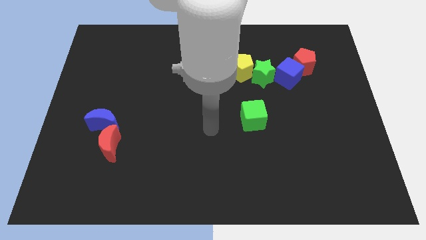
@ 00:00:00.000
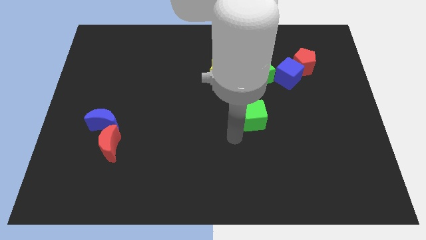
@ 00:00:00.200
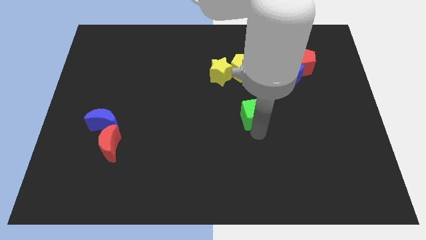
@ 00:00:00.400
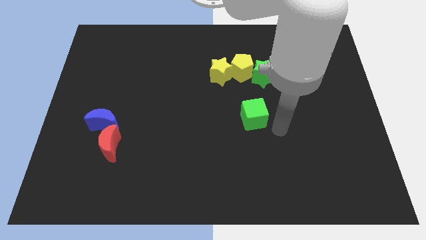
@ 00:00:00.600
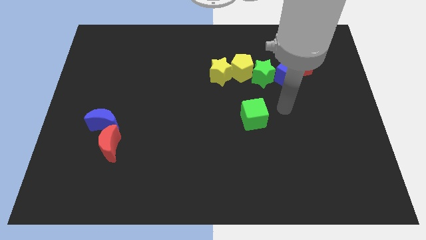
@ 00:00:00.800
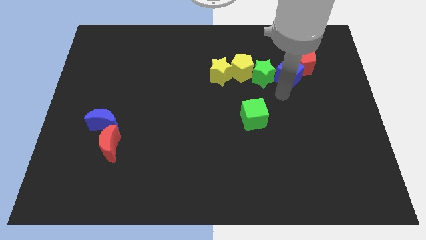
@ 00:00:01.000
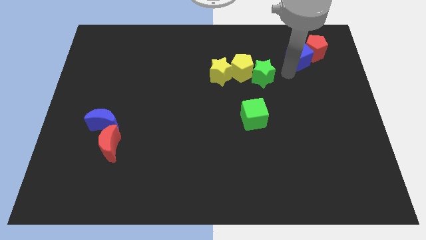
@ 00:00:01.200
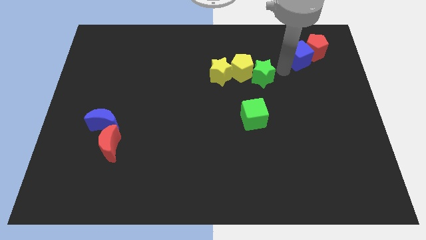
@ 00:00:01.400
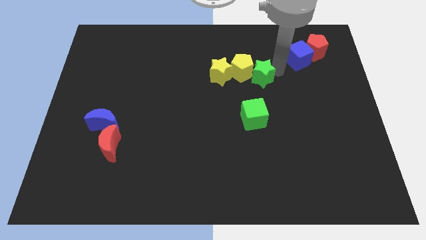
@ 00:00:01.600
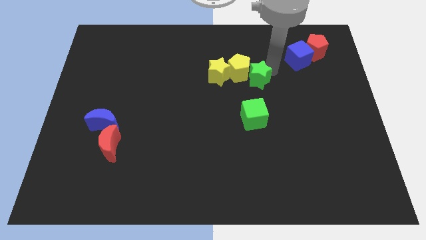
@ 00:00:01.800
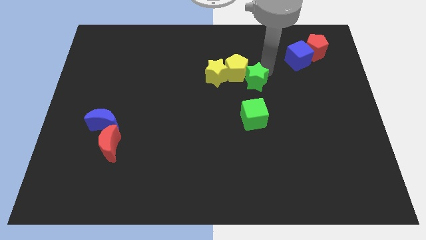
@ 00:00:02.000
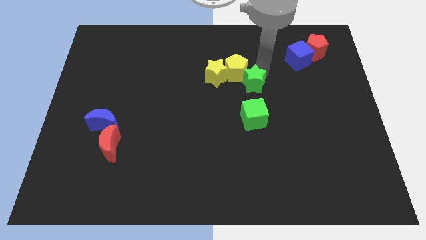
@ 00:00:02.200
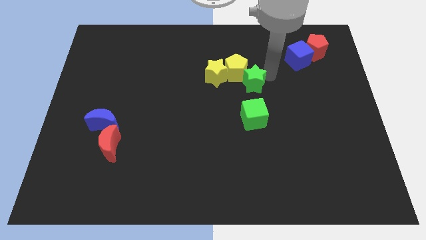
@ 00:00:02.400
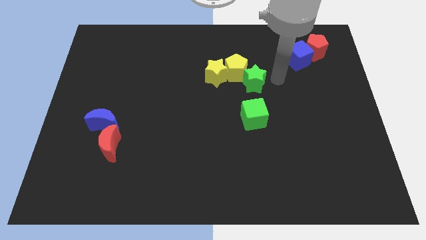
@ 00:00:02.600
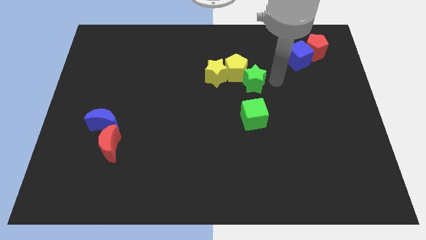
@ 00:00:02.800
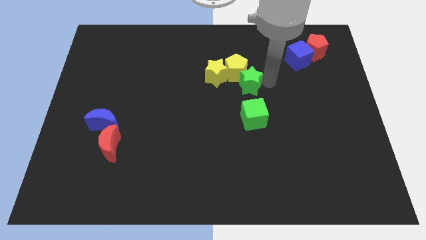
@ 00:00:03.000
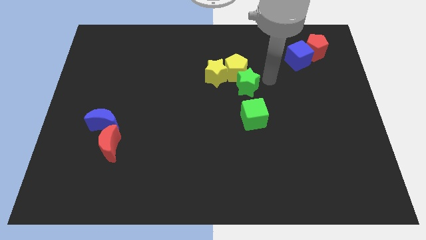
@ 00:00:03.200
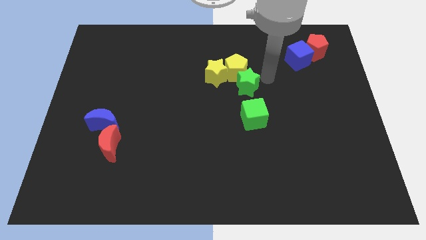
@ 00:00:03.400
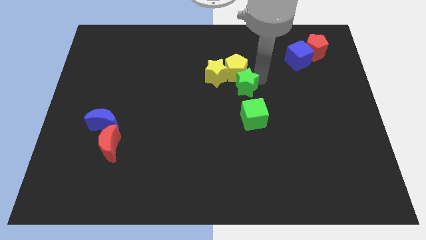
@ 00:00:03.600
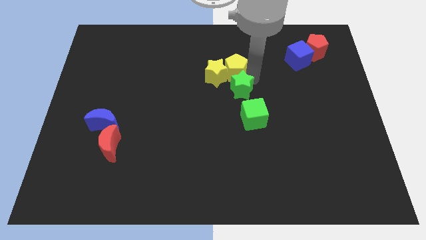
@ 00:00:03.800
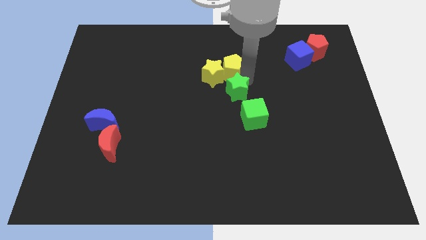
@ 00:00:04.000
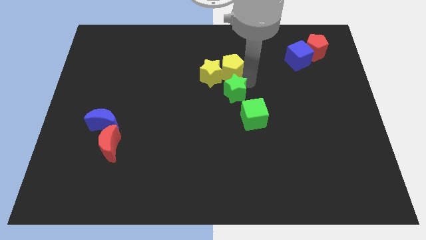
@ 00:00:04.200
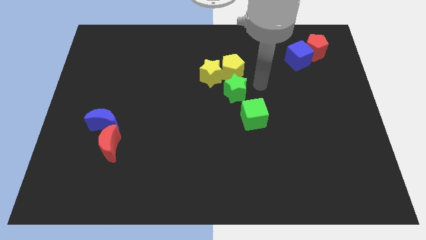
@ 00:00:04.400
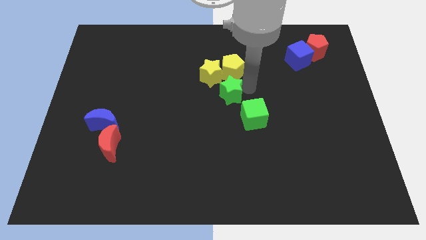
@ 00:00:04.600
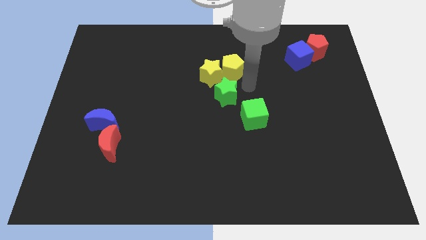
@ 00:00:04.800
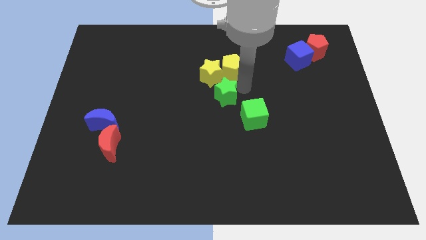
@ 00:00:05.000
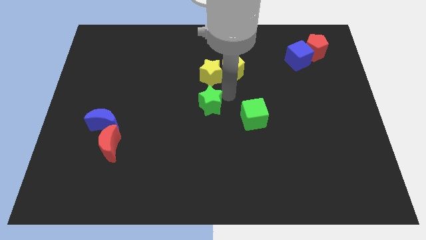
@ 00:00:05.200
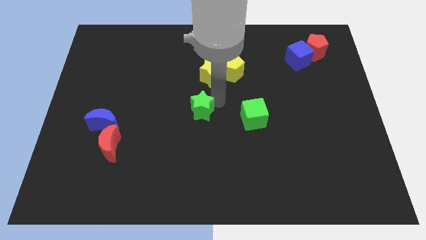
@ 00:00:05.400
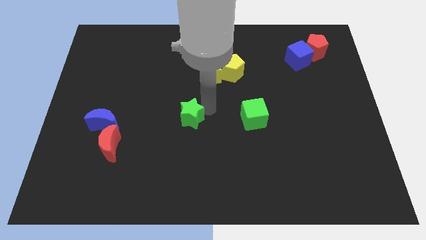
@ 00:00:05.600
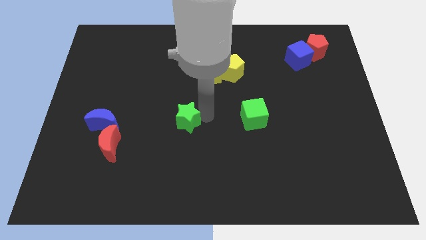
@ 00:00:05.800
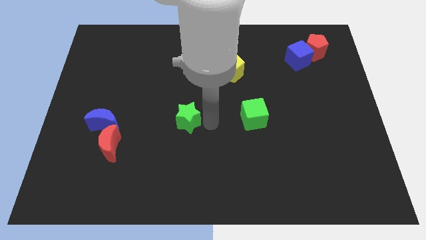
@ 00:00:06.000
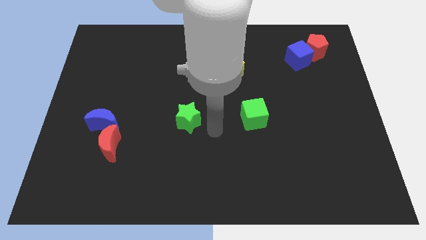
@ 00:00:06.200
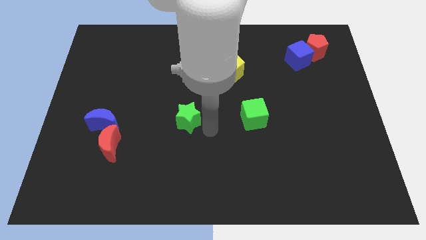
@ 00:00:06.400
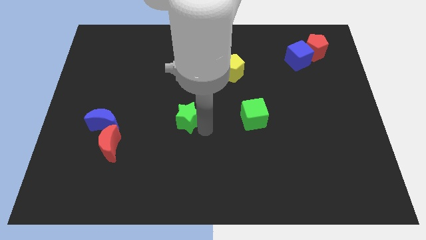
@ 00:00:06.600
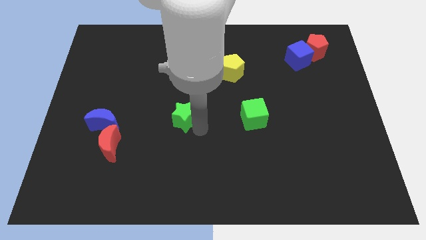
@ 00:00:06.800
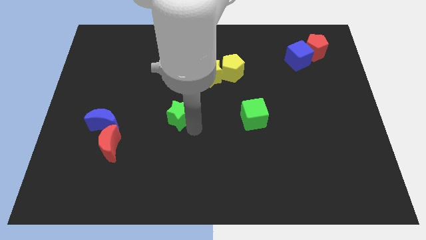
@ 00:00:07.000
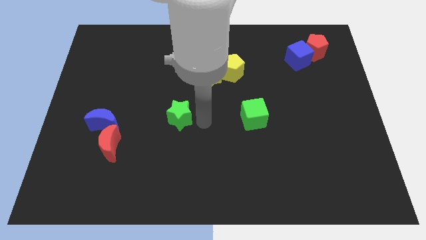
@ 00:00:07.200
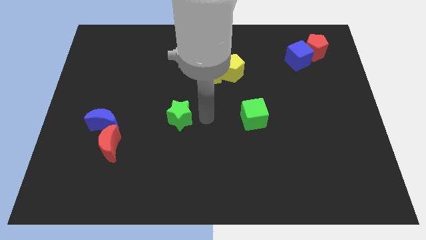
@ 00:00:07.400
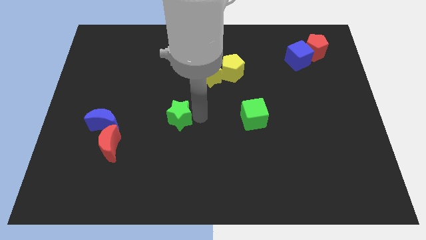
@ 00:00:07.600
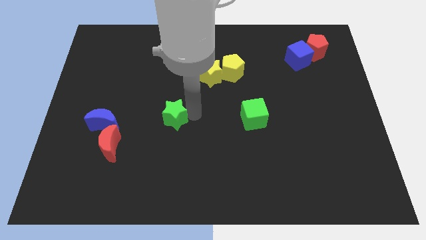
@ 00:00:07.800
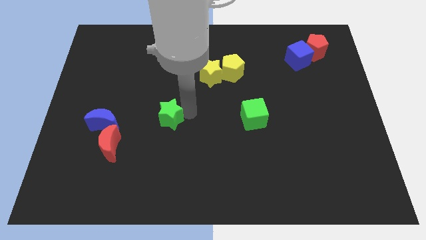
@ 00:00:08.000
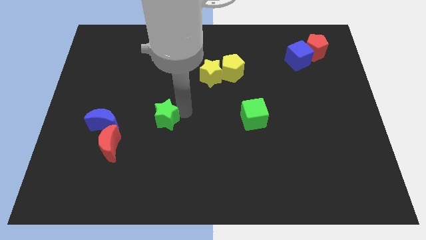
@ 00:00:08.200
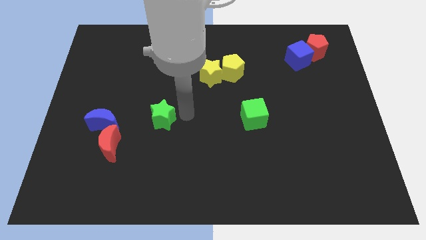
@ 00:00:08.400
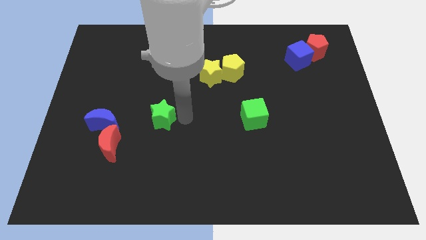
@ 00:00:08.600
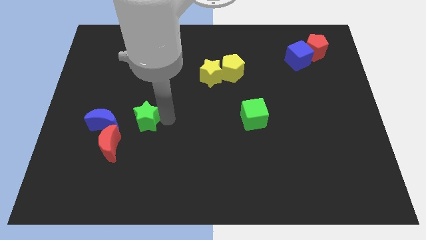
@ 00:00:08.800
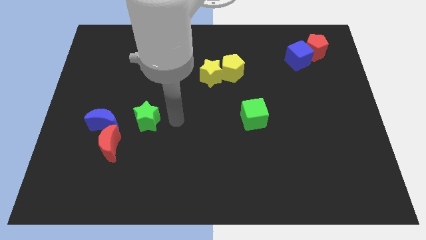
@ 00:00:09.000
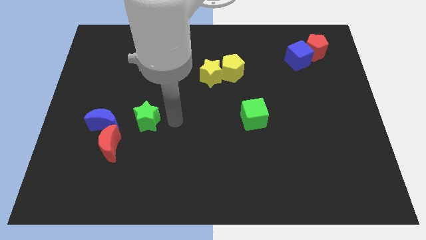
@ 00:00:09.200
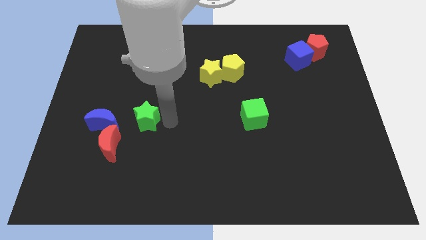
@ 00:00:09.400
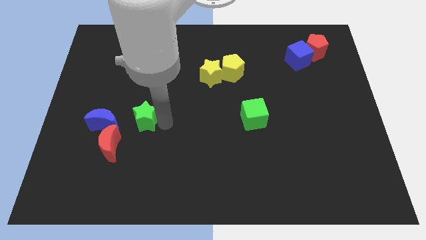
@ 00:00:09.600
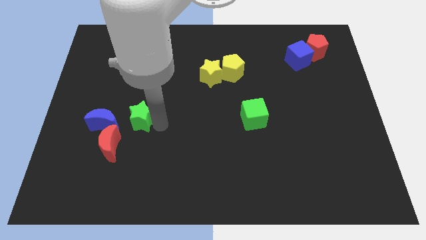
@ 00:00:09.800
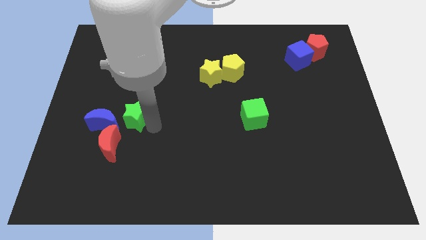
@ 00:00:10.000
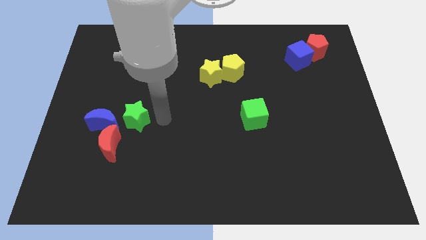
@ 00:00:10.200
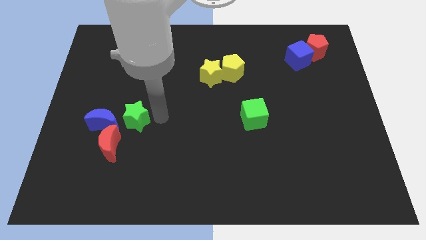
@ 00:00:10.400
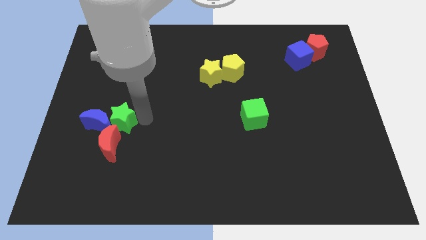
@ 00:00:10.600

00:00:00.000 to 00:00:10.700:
put the green star close to the blue moon

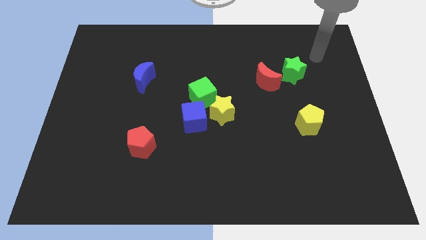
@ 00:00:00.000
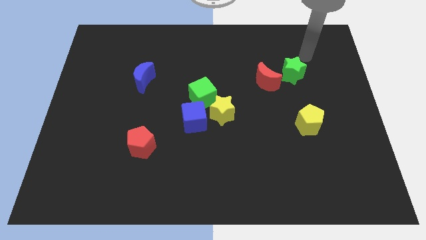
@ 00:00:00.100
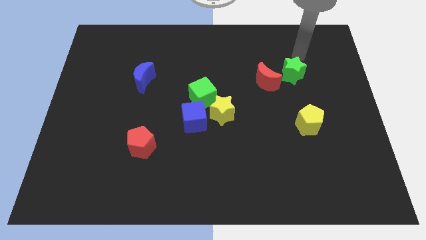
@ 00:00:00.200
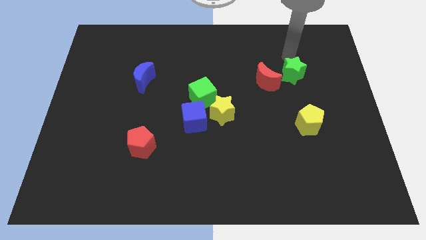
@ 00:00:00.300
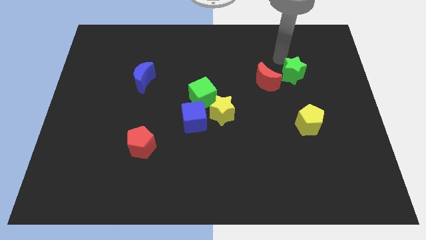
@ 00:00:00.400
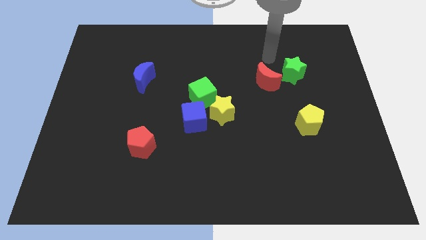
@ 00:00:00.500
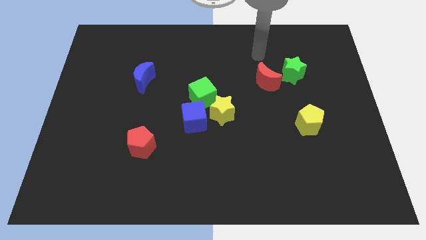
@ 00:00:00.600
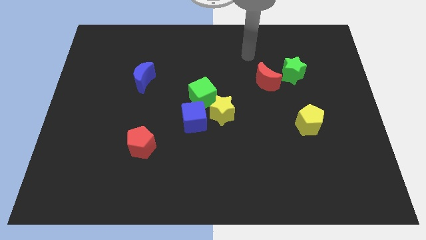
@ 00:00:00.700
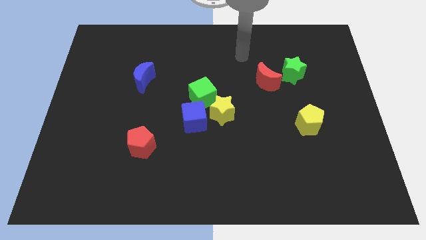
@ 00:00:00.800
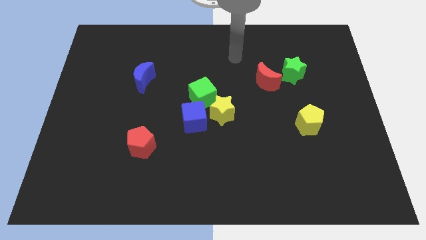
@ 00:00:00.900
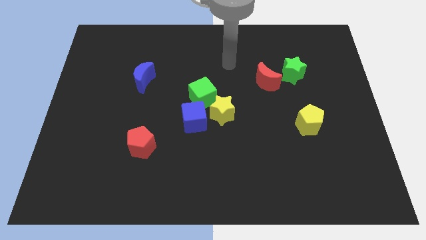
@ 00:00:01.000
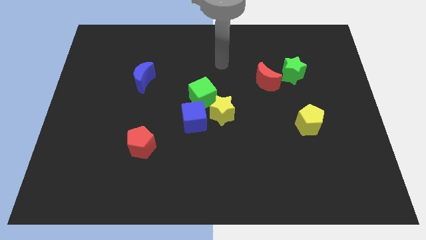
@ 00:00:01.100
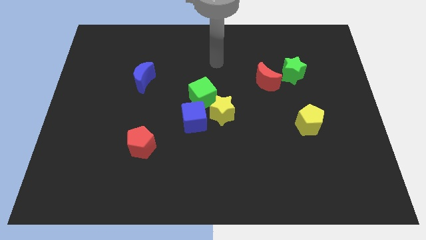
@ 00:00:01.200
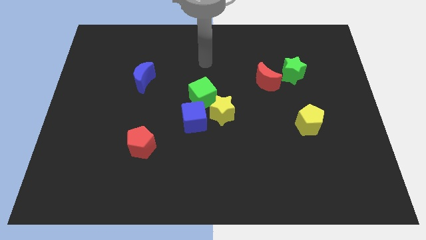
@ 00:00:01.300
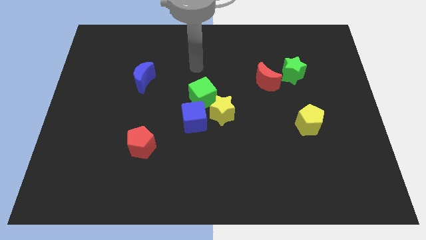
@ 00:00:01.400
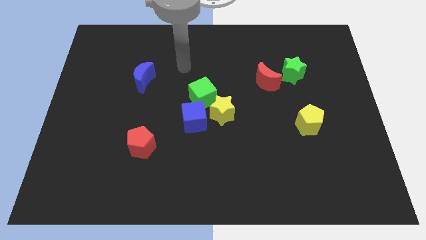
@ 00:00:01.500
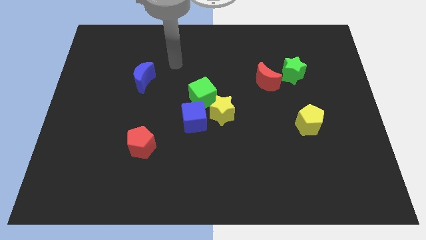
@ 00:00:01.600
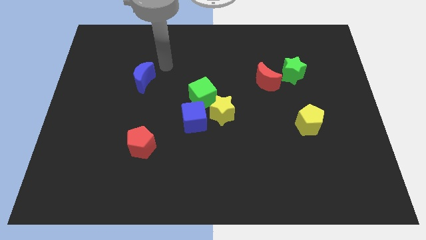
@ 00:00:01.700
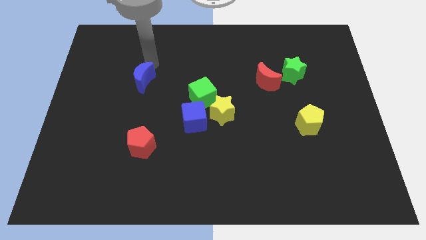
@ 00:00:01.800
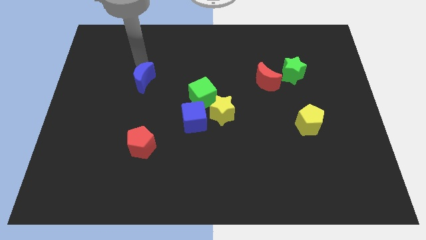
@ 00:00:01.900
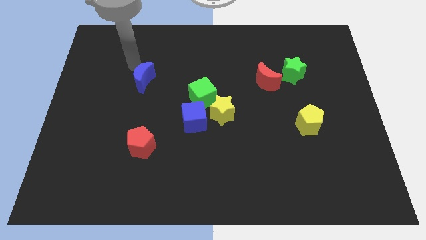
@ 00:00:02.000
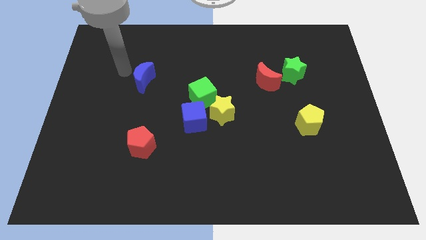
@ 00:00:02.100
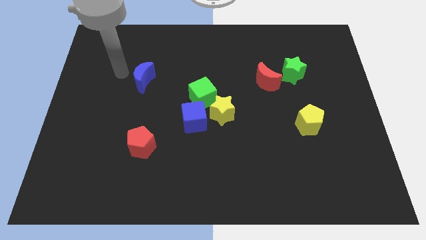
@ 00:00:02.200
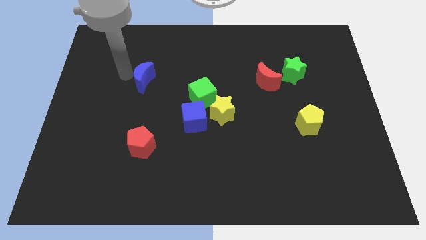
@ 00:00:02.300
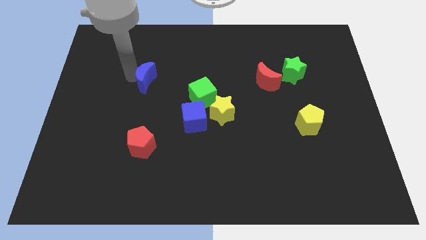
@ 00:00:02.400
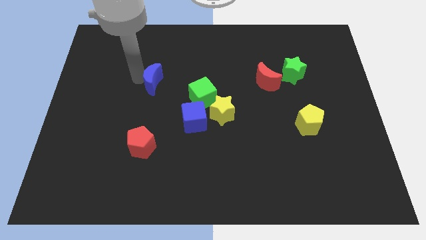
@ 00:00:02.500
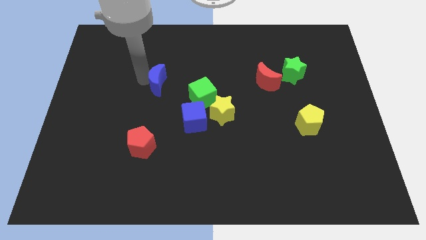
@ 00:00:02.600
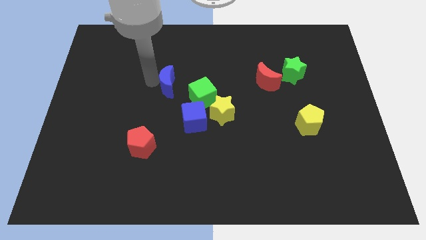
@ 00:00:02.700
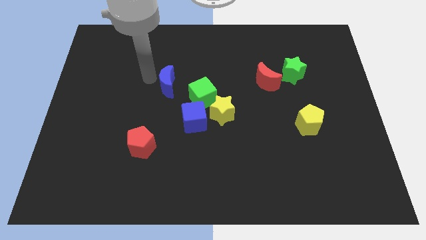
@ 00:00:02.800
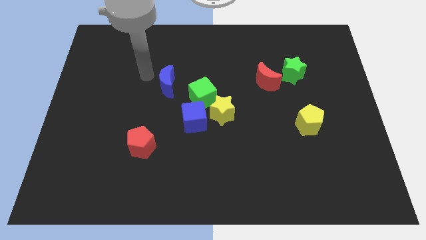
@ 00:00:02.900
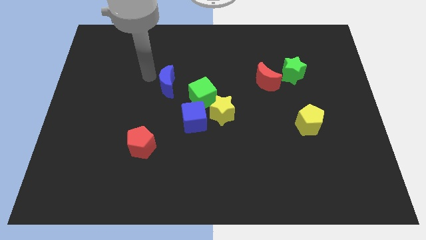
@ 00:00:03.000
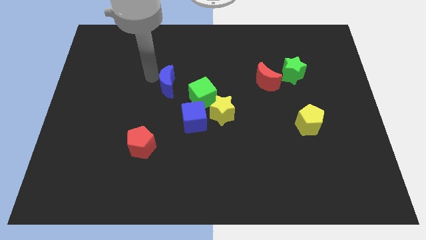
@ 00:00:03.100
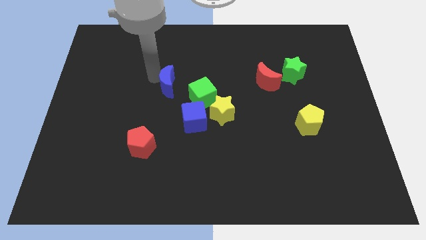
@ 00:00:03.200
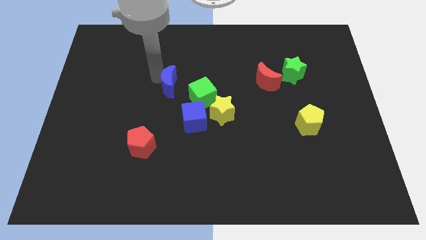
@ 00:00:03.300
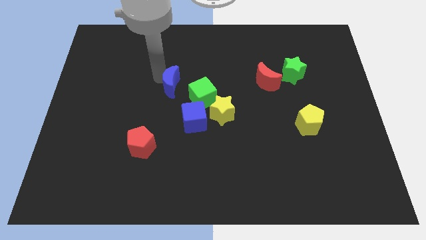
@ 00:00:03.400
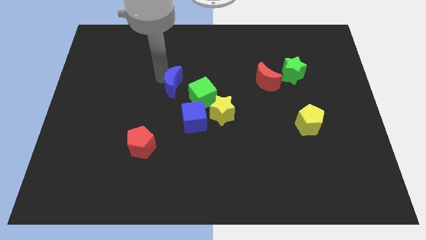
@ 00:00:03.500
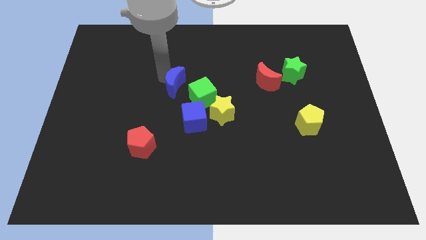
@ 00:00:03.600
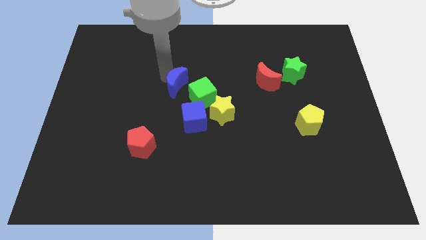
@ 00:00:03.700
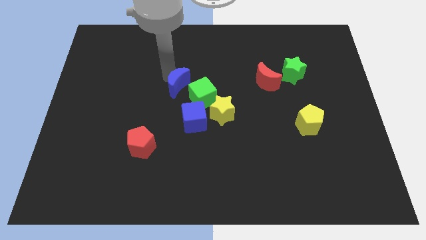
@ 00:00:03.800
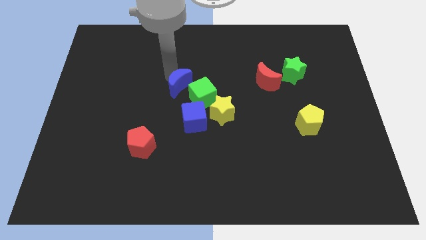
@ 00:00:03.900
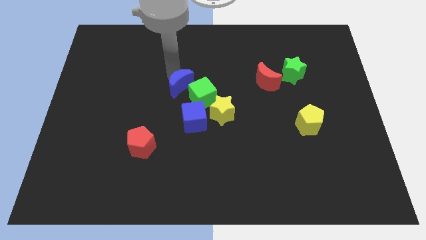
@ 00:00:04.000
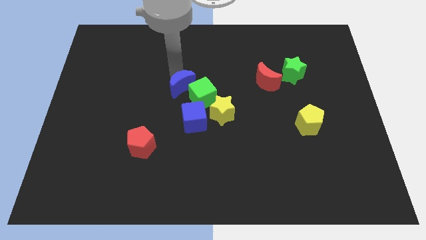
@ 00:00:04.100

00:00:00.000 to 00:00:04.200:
slide the blue moon next to the green cube
